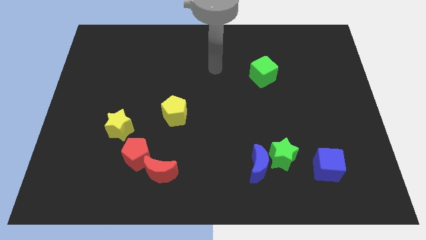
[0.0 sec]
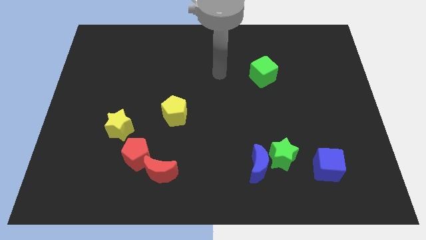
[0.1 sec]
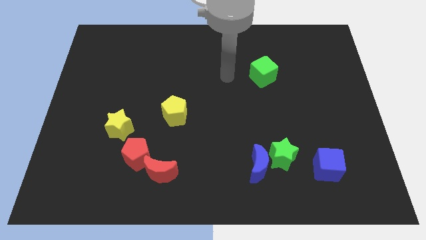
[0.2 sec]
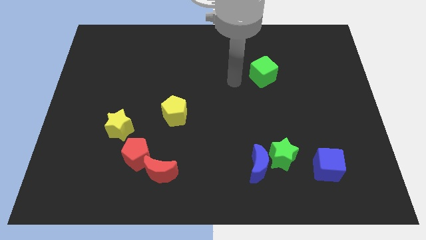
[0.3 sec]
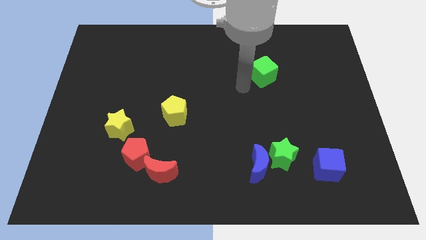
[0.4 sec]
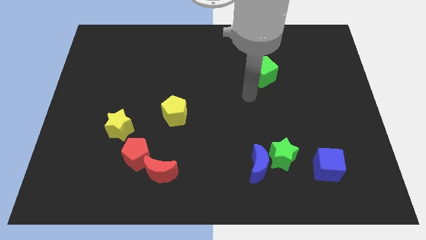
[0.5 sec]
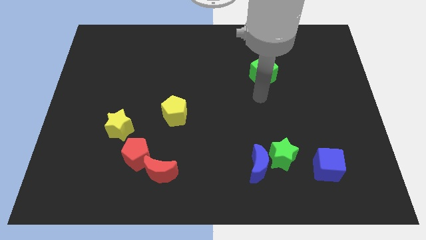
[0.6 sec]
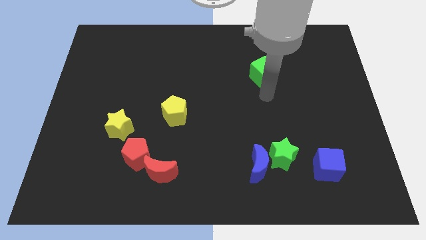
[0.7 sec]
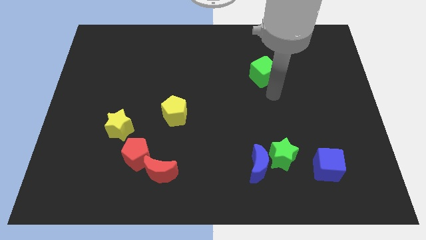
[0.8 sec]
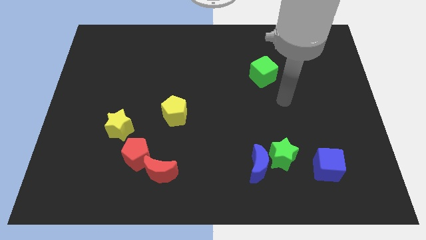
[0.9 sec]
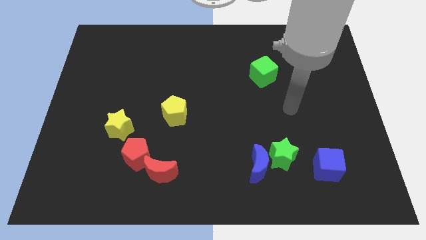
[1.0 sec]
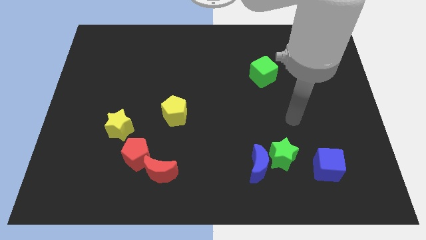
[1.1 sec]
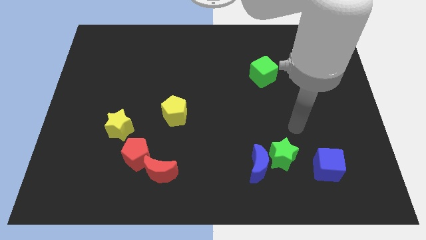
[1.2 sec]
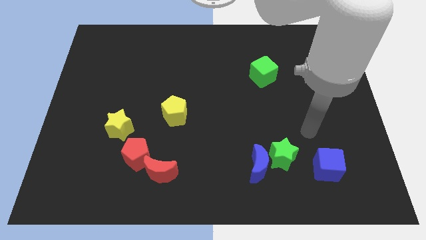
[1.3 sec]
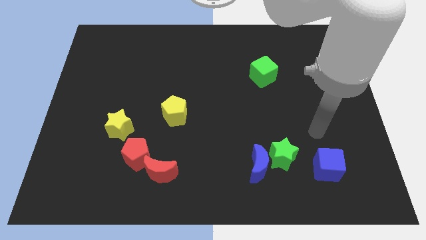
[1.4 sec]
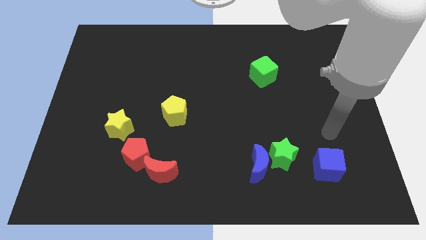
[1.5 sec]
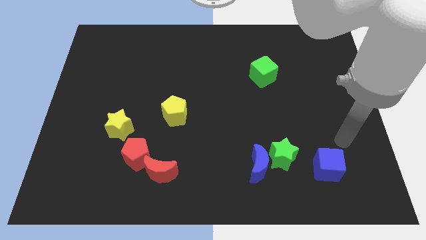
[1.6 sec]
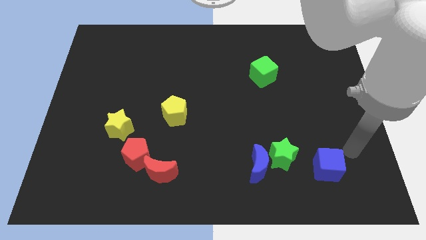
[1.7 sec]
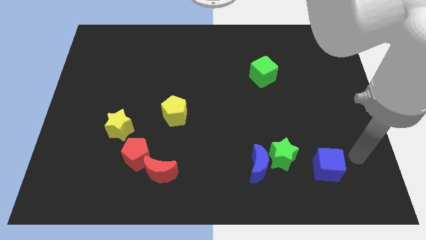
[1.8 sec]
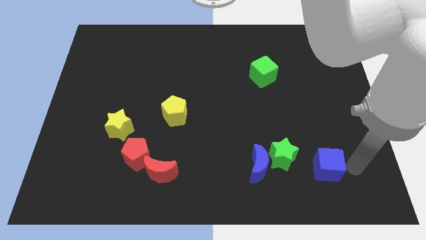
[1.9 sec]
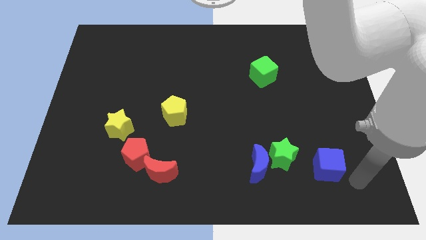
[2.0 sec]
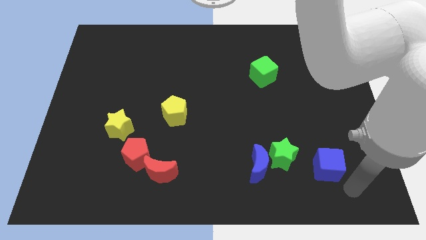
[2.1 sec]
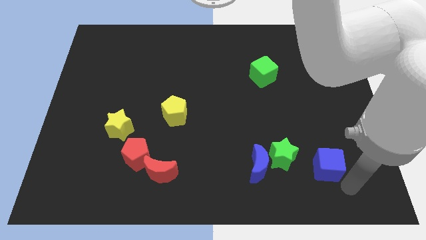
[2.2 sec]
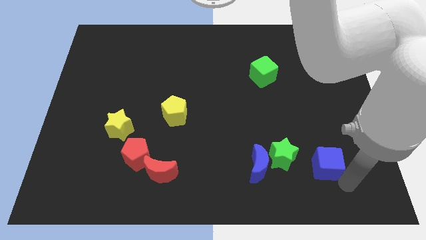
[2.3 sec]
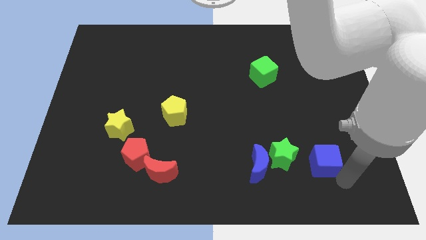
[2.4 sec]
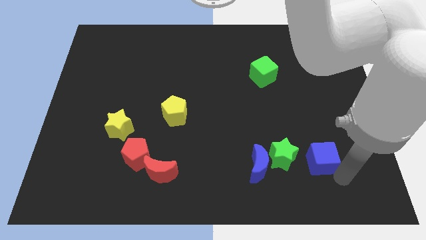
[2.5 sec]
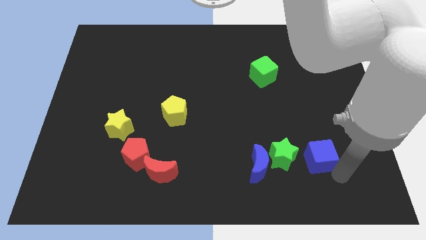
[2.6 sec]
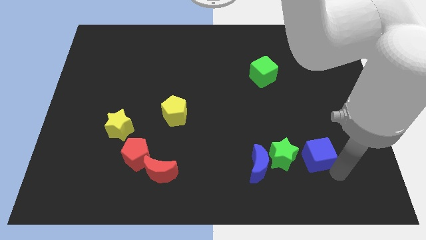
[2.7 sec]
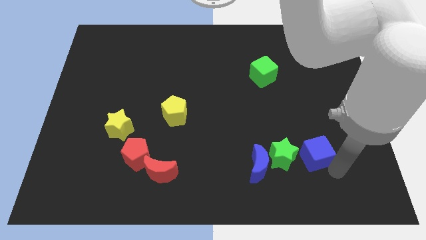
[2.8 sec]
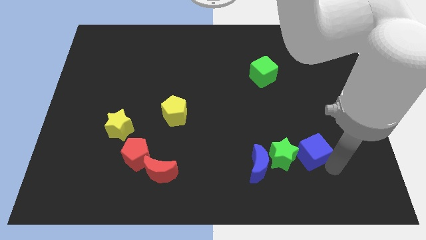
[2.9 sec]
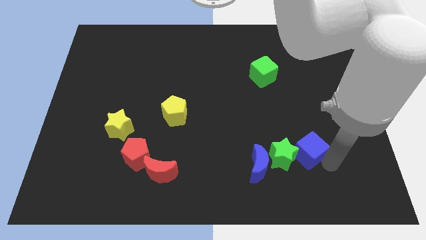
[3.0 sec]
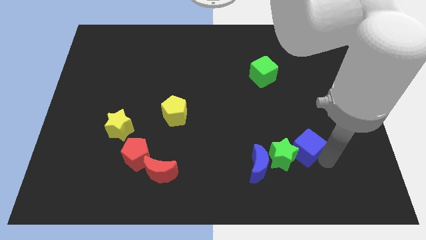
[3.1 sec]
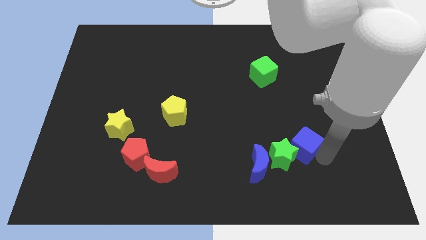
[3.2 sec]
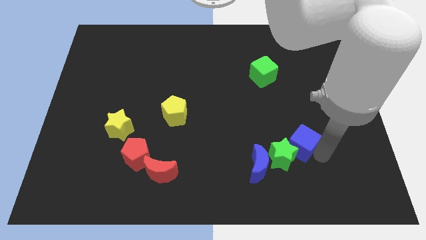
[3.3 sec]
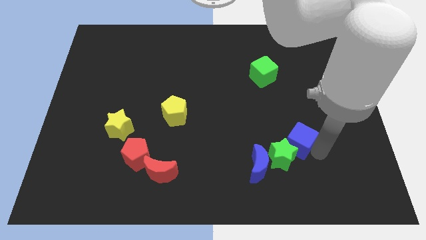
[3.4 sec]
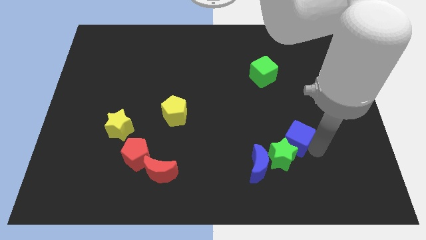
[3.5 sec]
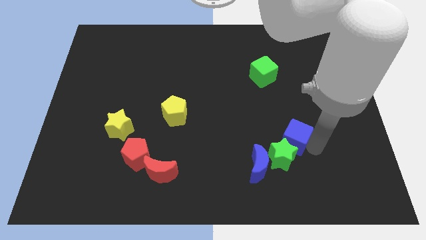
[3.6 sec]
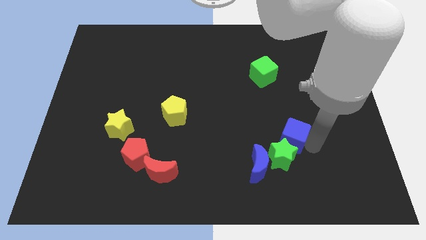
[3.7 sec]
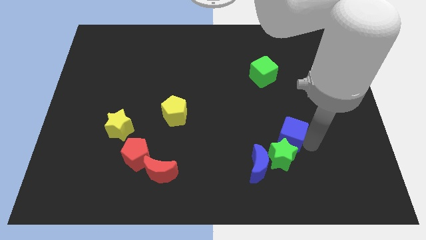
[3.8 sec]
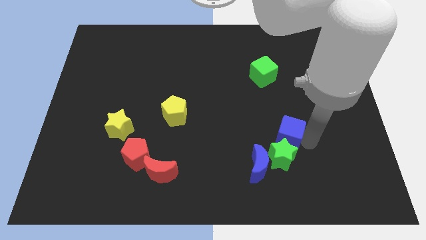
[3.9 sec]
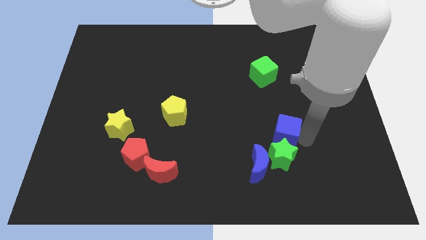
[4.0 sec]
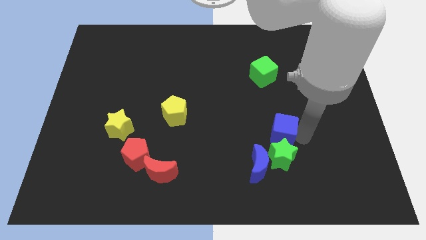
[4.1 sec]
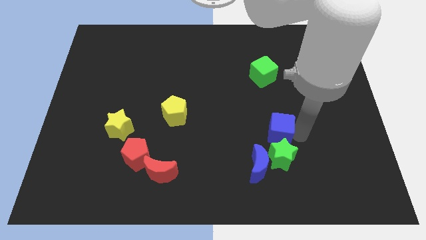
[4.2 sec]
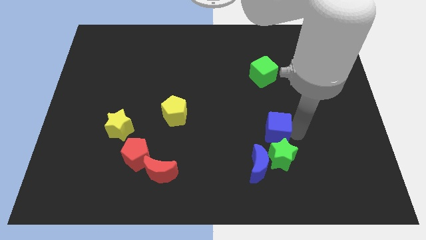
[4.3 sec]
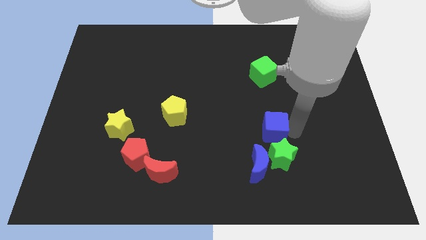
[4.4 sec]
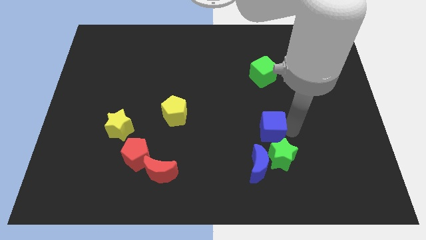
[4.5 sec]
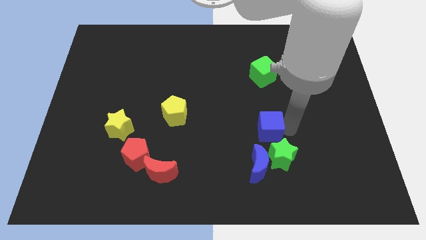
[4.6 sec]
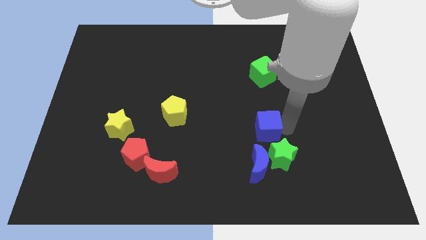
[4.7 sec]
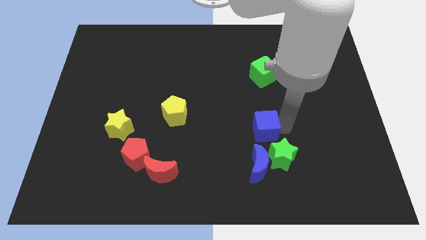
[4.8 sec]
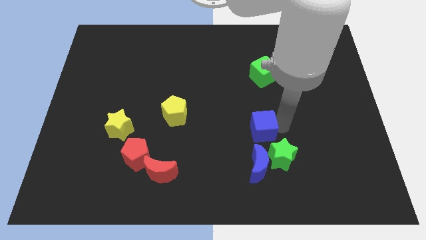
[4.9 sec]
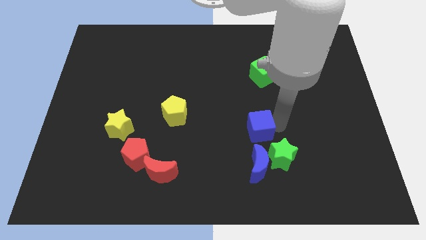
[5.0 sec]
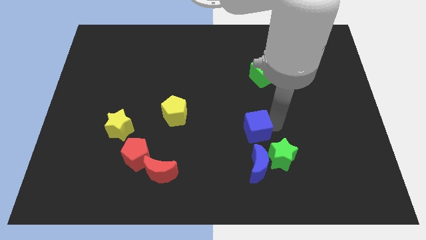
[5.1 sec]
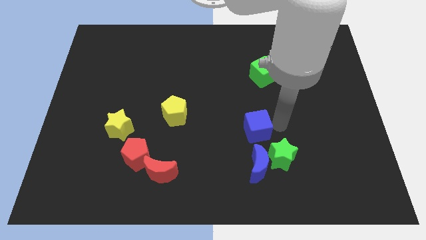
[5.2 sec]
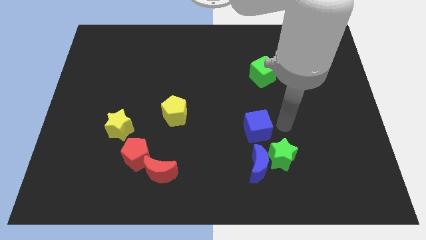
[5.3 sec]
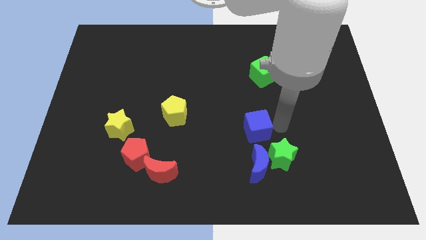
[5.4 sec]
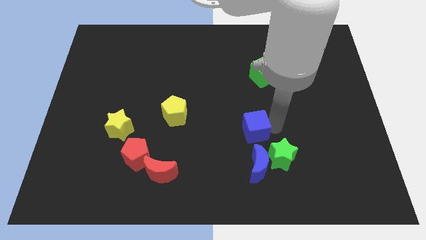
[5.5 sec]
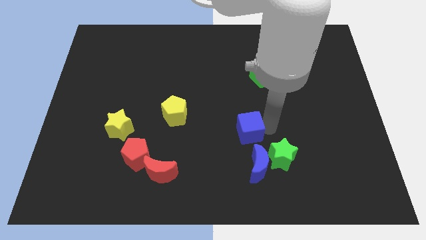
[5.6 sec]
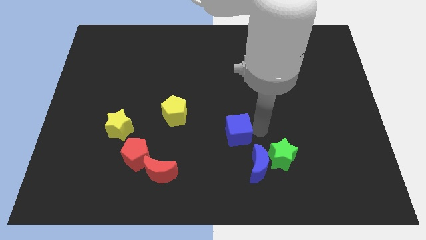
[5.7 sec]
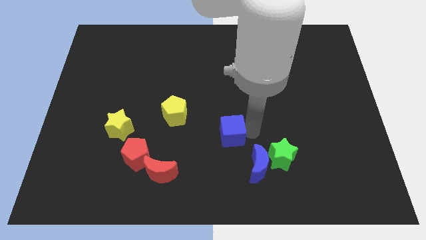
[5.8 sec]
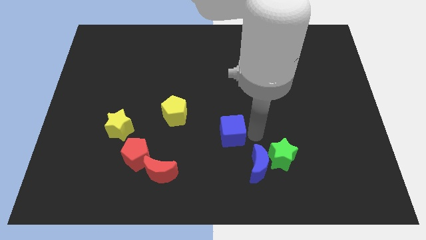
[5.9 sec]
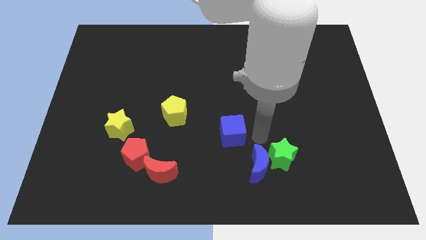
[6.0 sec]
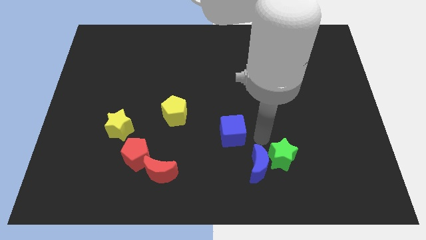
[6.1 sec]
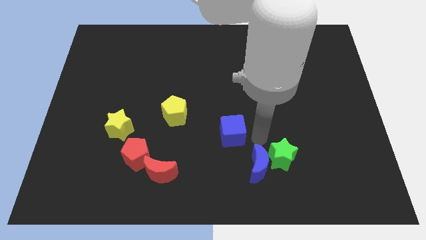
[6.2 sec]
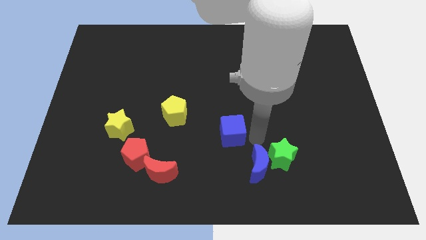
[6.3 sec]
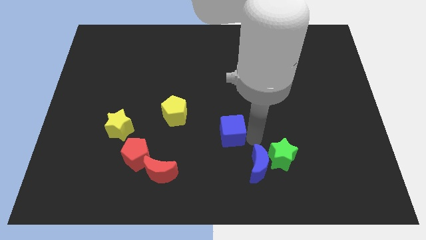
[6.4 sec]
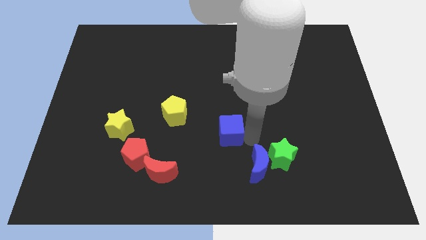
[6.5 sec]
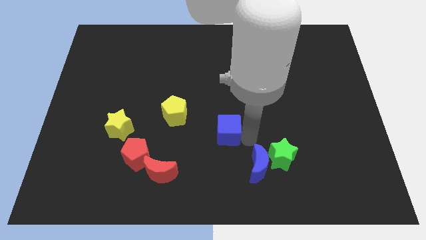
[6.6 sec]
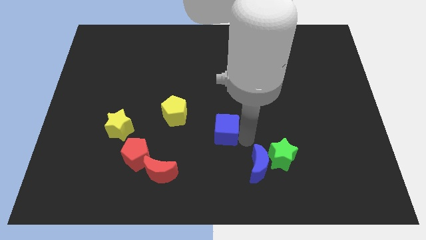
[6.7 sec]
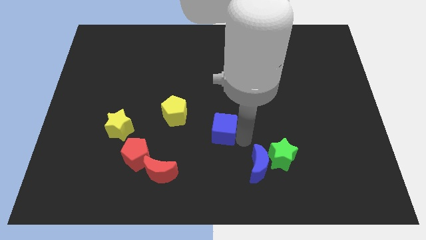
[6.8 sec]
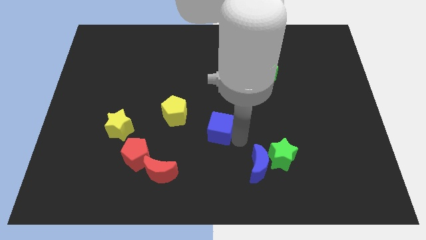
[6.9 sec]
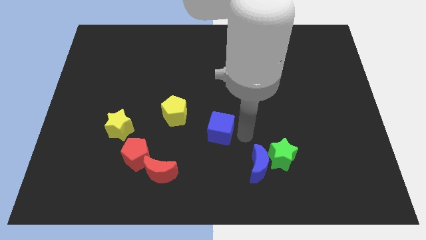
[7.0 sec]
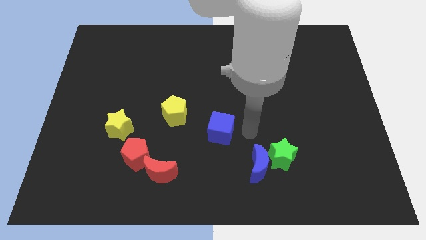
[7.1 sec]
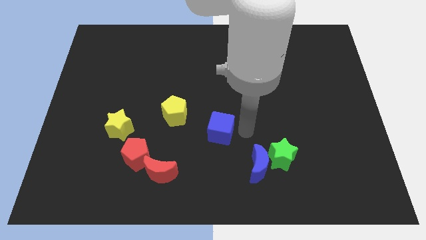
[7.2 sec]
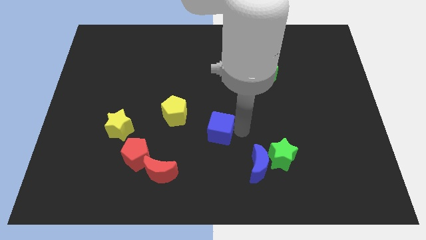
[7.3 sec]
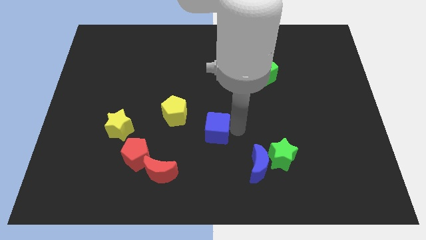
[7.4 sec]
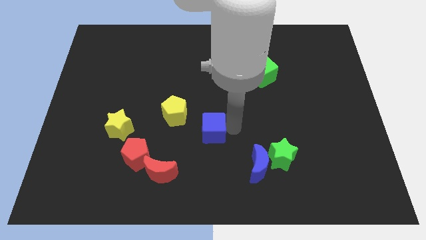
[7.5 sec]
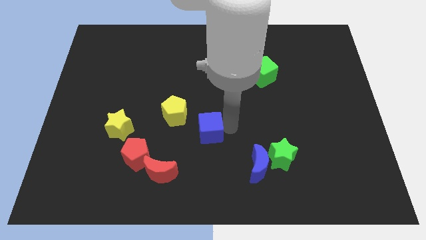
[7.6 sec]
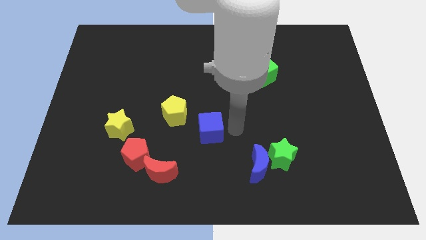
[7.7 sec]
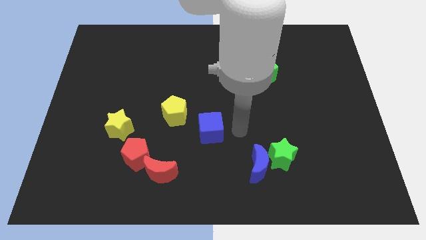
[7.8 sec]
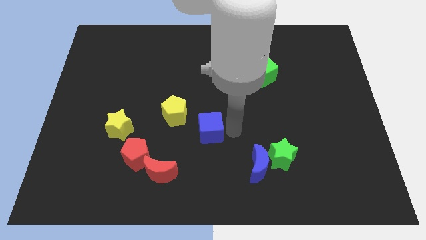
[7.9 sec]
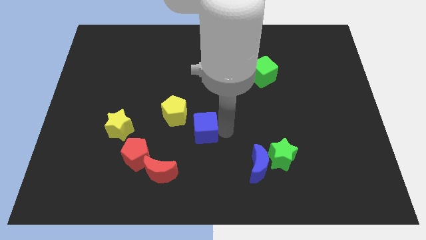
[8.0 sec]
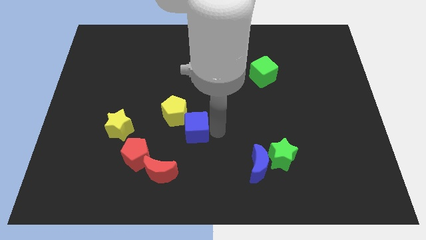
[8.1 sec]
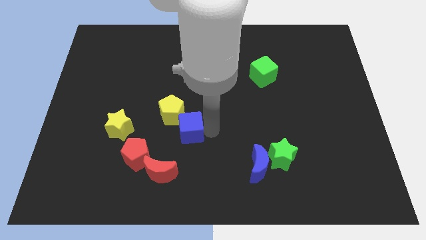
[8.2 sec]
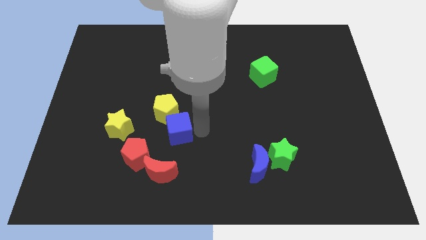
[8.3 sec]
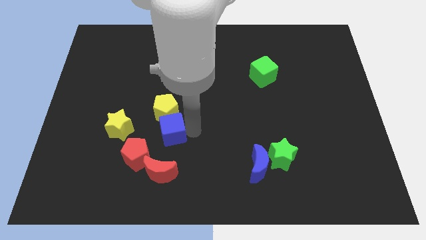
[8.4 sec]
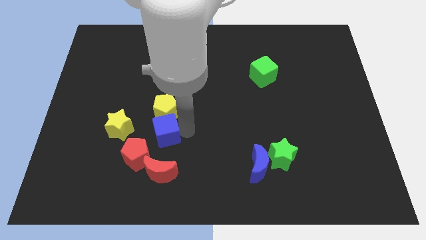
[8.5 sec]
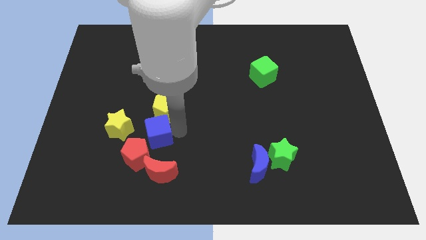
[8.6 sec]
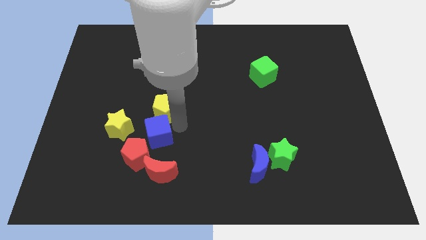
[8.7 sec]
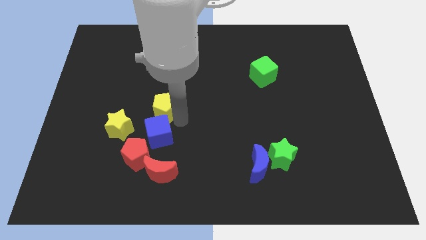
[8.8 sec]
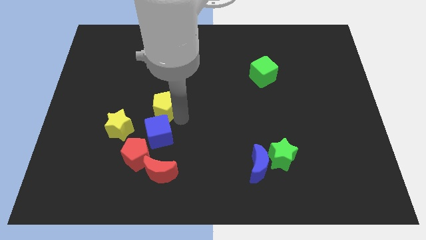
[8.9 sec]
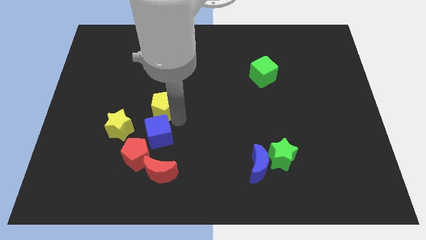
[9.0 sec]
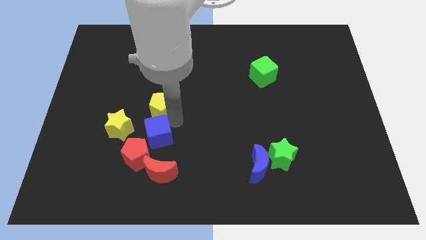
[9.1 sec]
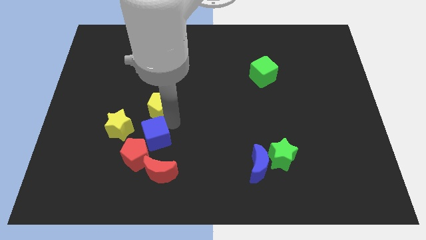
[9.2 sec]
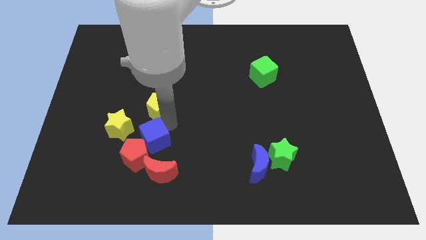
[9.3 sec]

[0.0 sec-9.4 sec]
slide the blue cube diagonally up and to the left of the red moon
